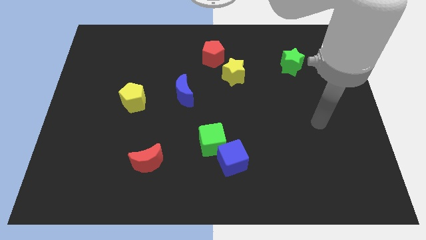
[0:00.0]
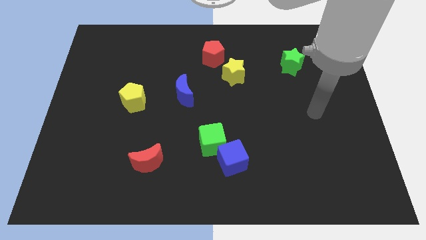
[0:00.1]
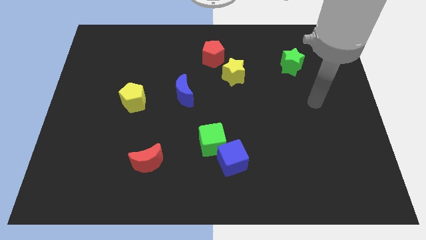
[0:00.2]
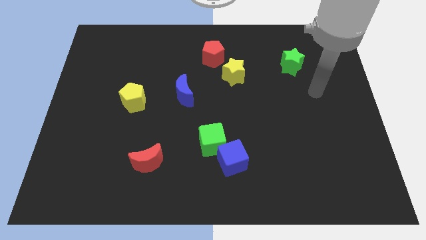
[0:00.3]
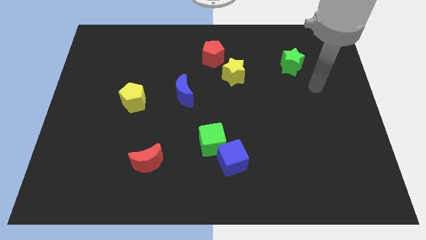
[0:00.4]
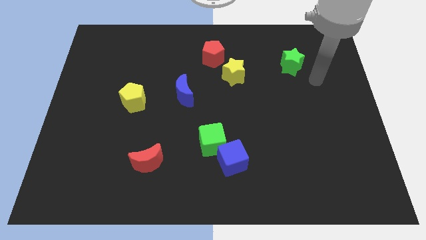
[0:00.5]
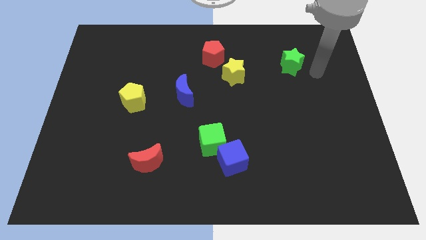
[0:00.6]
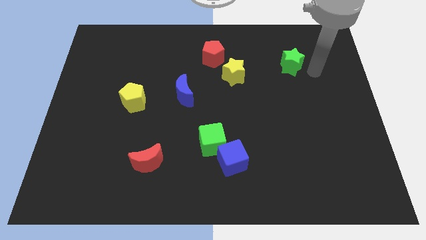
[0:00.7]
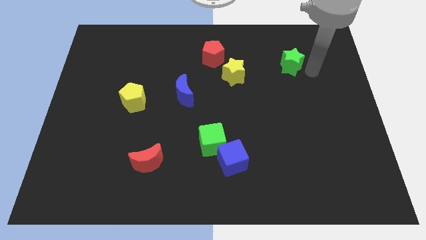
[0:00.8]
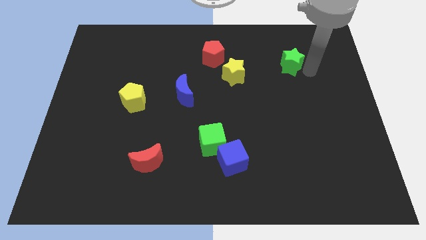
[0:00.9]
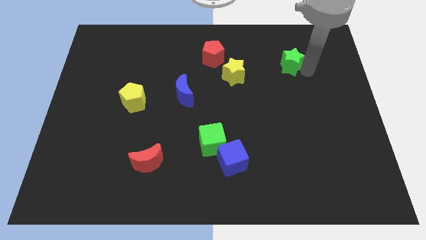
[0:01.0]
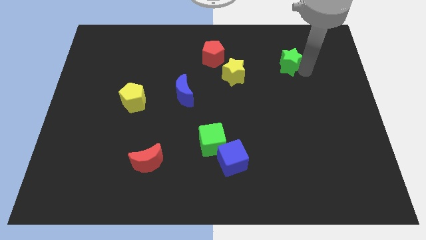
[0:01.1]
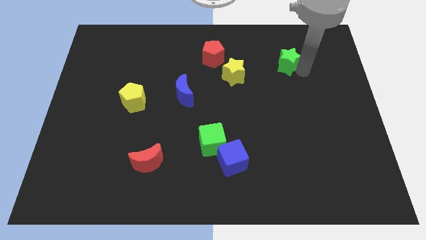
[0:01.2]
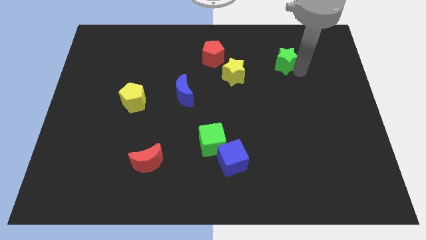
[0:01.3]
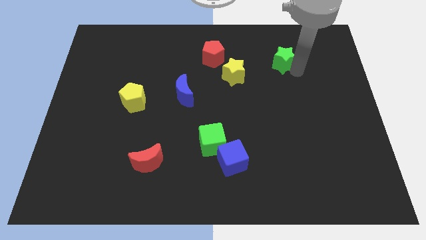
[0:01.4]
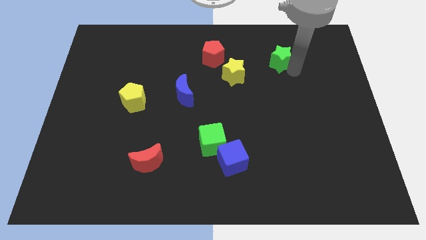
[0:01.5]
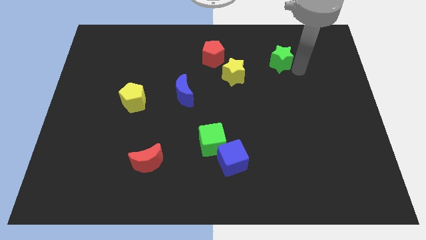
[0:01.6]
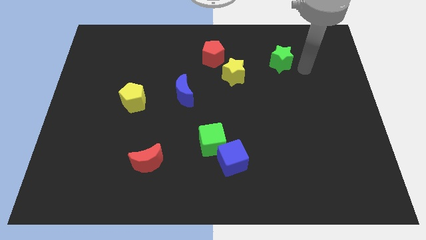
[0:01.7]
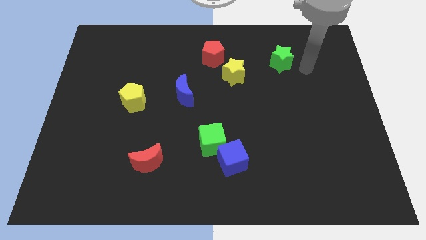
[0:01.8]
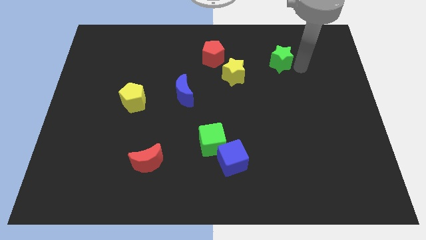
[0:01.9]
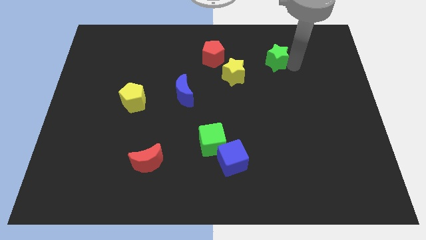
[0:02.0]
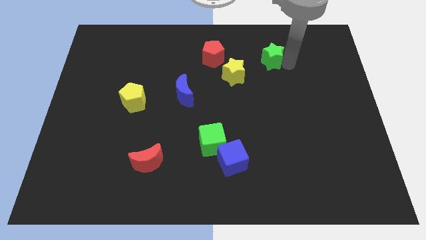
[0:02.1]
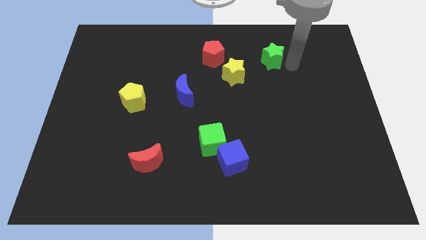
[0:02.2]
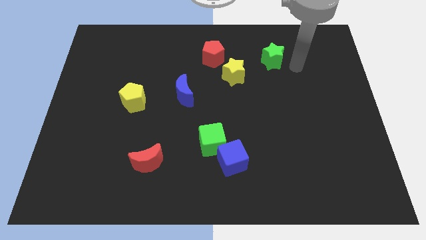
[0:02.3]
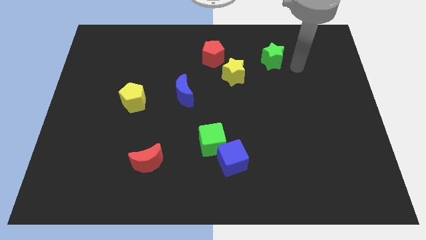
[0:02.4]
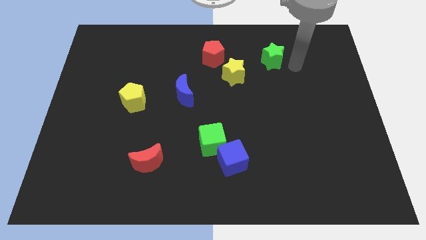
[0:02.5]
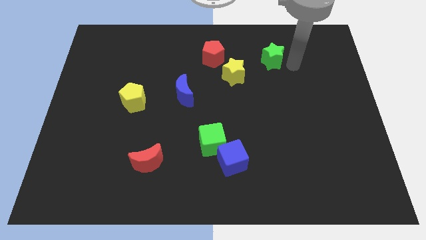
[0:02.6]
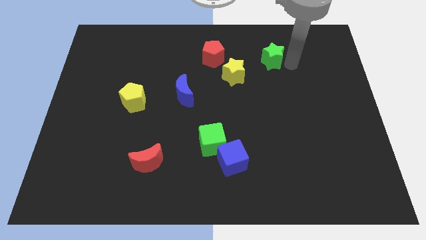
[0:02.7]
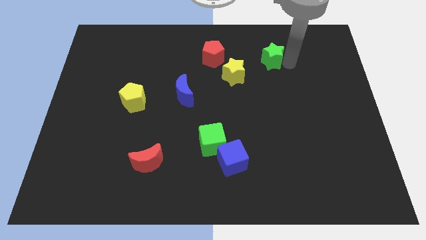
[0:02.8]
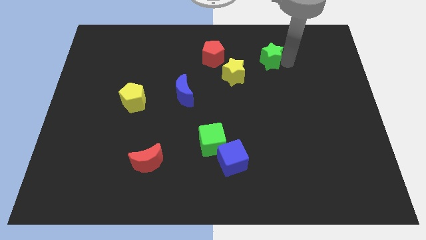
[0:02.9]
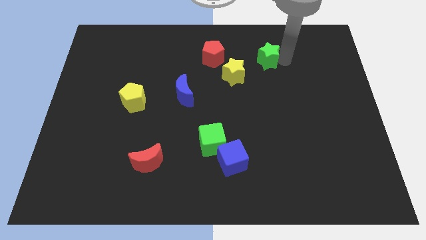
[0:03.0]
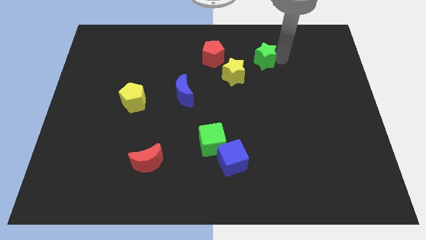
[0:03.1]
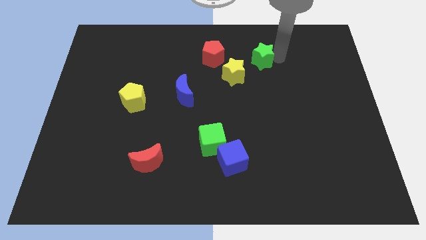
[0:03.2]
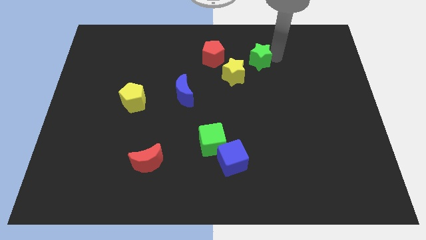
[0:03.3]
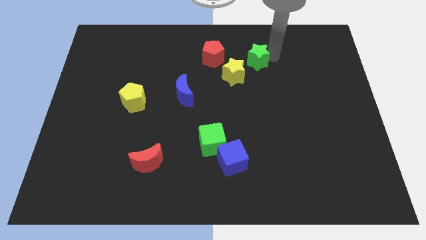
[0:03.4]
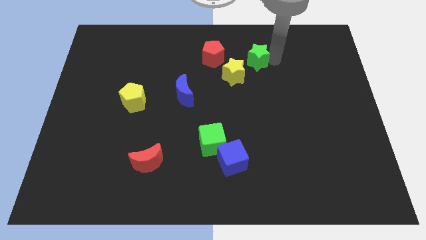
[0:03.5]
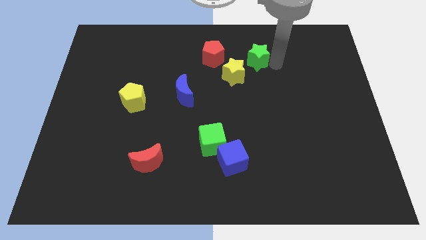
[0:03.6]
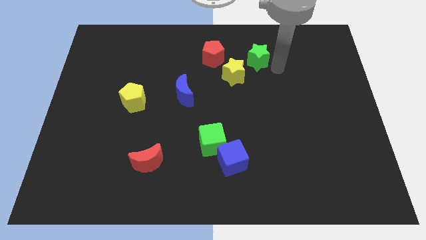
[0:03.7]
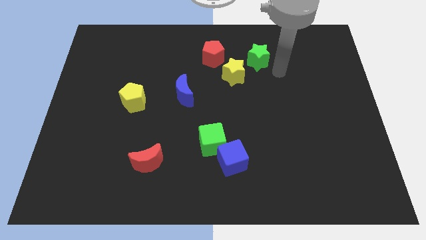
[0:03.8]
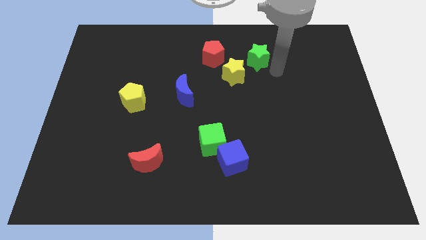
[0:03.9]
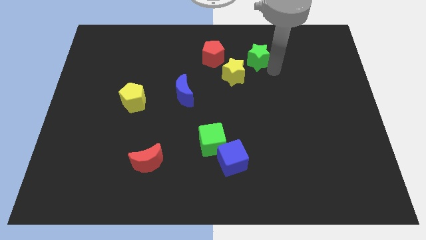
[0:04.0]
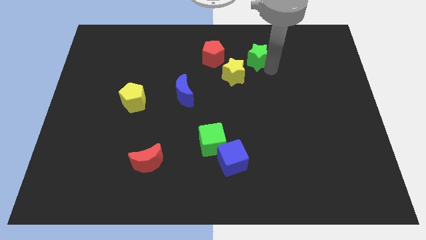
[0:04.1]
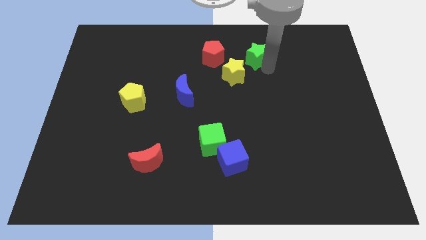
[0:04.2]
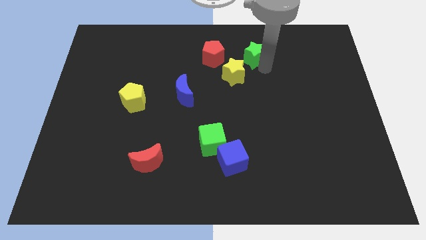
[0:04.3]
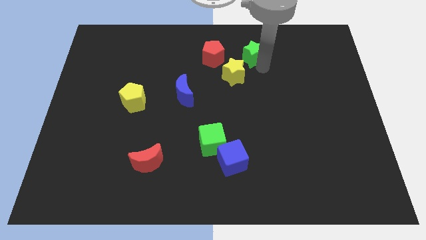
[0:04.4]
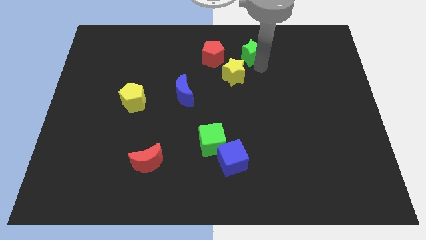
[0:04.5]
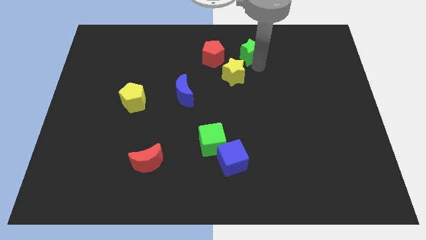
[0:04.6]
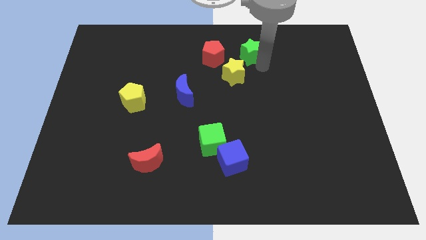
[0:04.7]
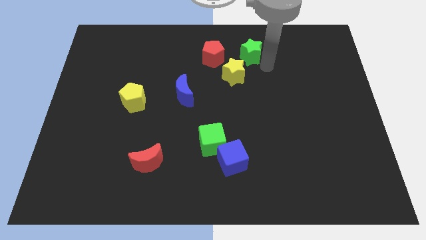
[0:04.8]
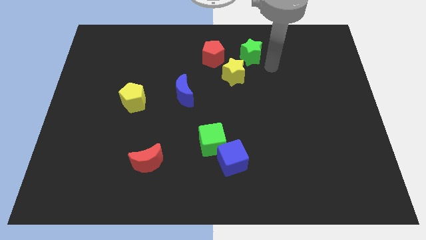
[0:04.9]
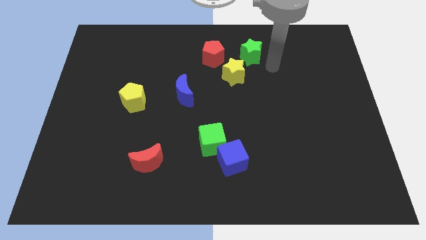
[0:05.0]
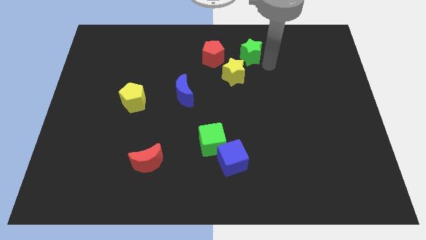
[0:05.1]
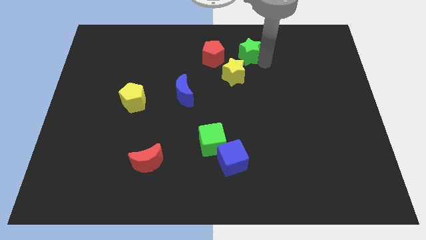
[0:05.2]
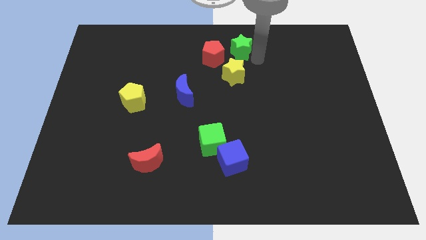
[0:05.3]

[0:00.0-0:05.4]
push the green star to the top side

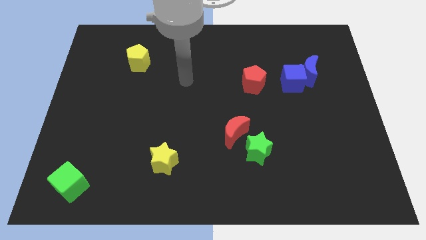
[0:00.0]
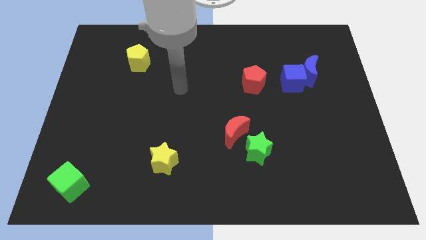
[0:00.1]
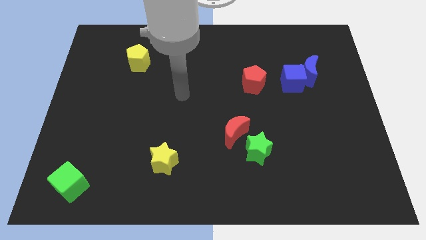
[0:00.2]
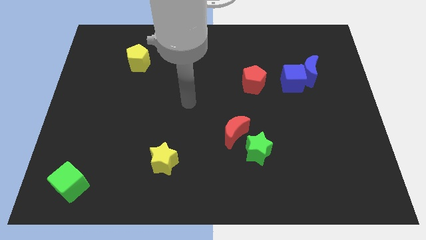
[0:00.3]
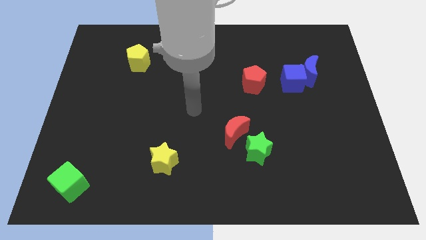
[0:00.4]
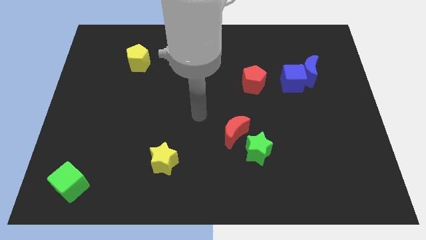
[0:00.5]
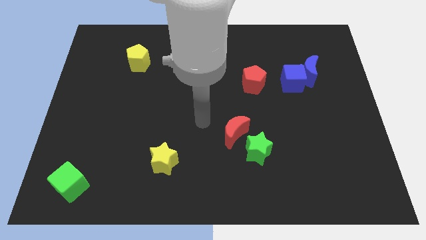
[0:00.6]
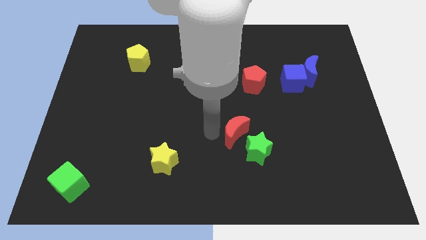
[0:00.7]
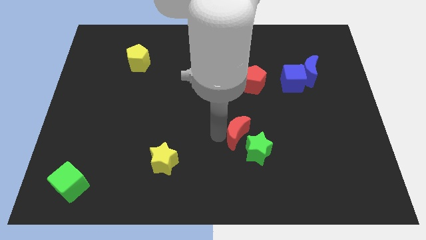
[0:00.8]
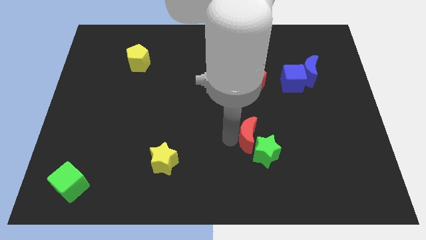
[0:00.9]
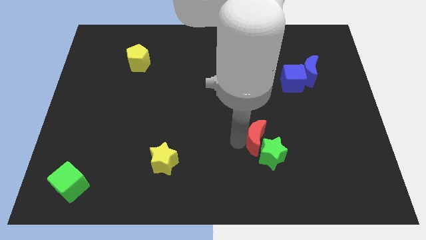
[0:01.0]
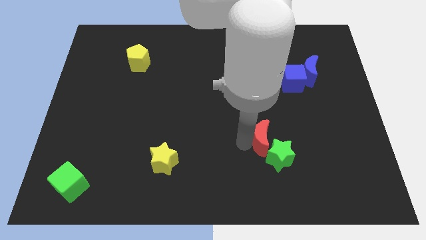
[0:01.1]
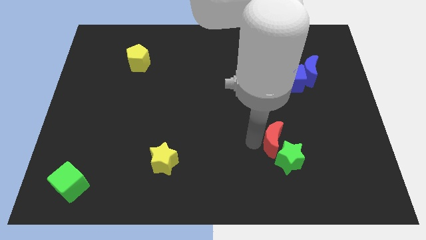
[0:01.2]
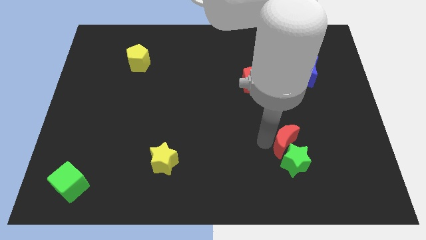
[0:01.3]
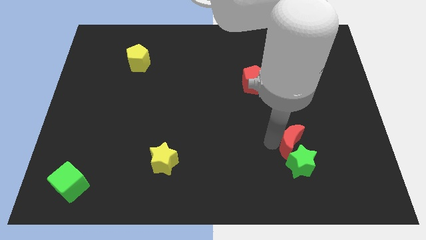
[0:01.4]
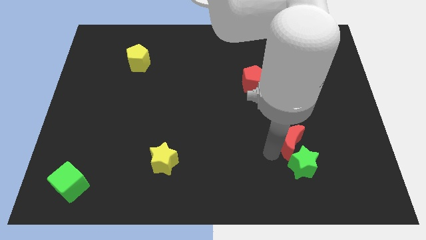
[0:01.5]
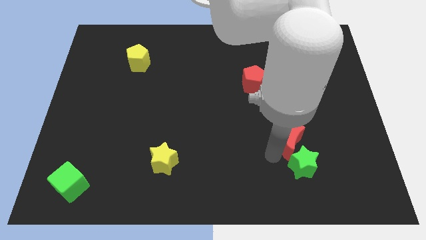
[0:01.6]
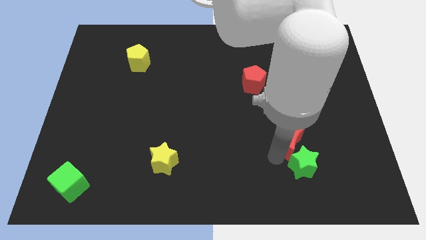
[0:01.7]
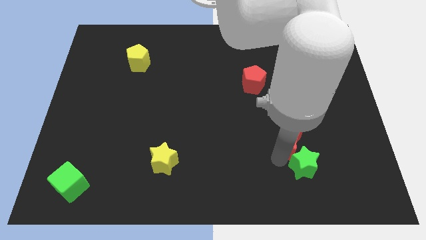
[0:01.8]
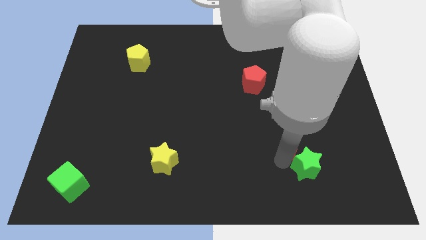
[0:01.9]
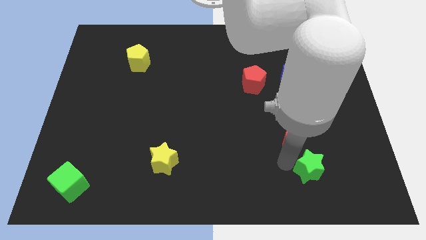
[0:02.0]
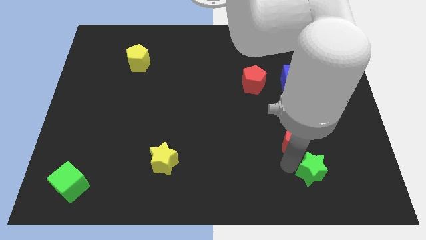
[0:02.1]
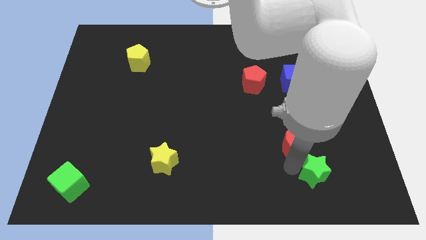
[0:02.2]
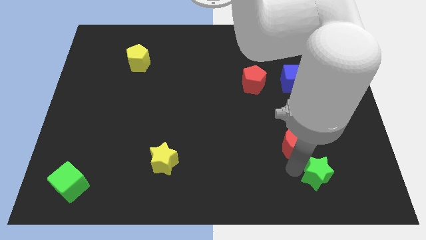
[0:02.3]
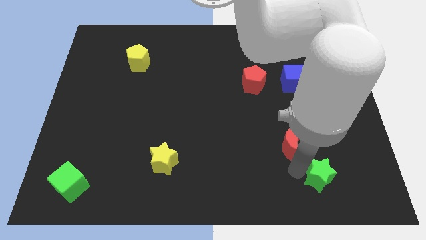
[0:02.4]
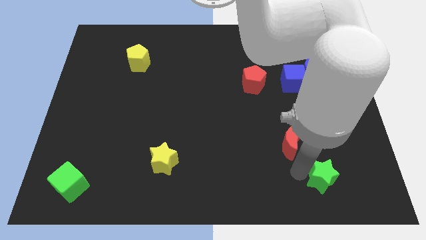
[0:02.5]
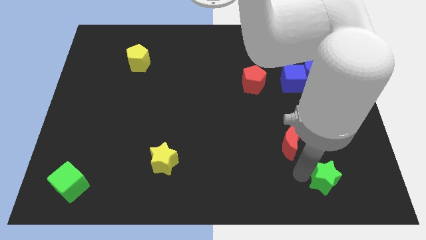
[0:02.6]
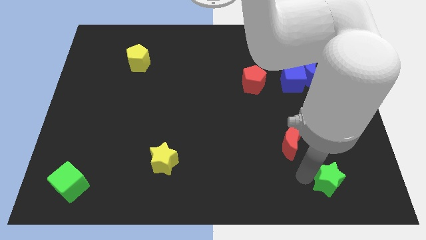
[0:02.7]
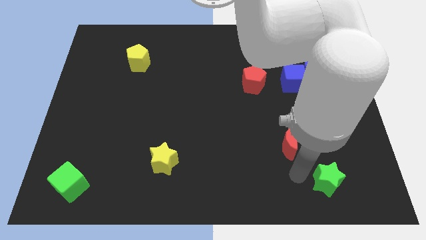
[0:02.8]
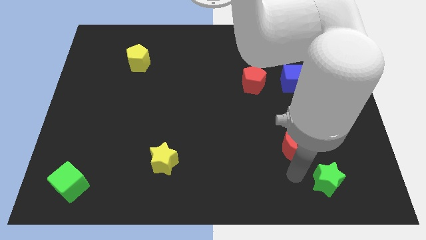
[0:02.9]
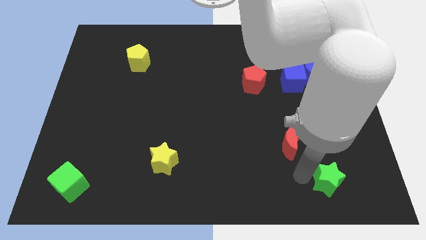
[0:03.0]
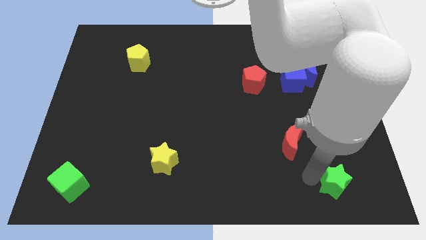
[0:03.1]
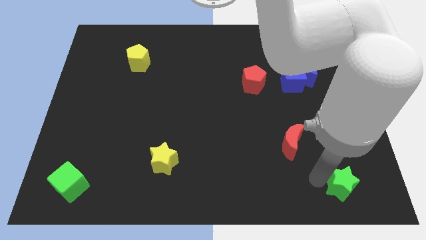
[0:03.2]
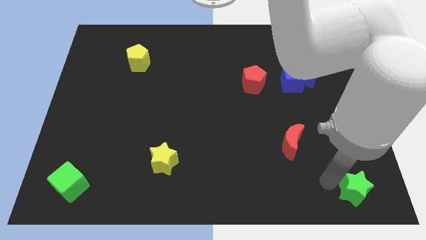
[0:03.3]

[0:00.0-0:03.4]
push the green star to the bottom right
